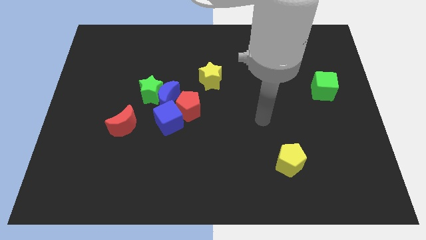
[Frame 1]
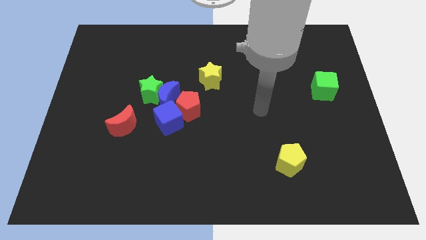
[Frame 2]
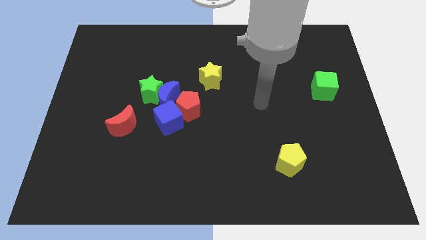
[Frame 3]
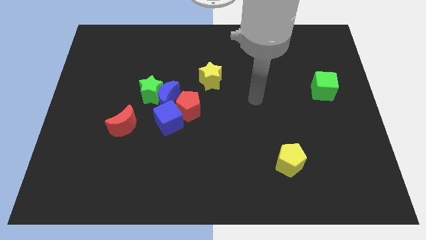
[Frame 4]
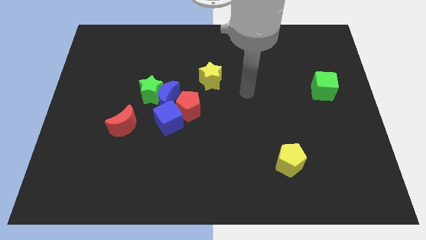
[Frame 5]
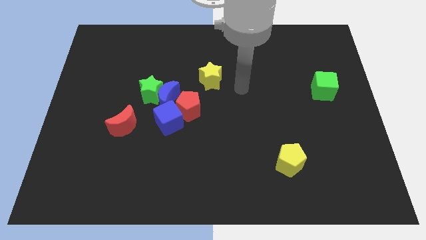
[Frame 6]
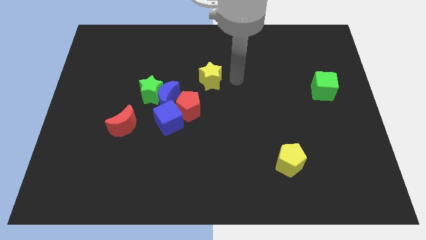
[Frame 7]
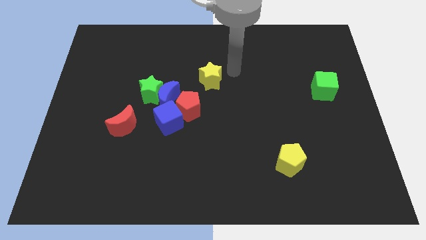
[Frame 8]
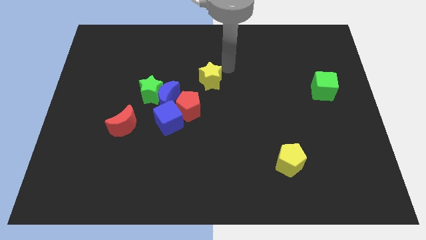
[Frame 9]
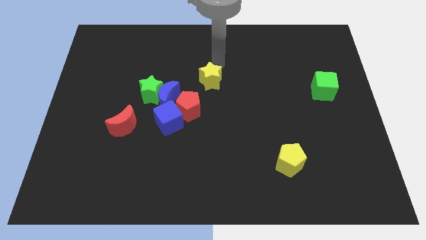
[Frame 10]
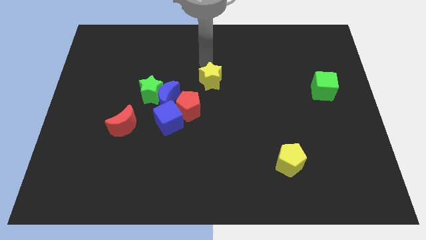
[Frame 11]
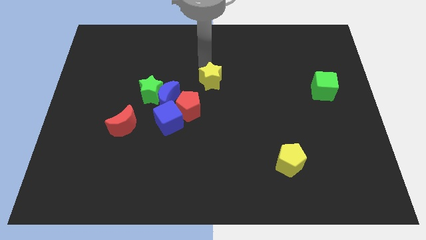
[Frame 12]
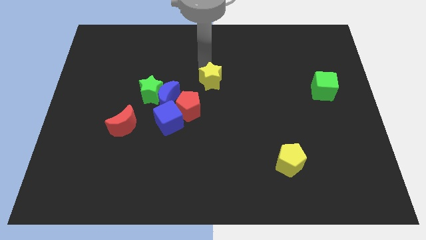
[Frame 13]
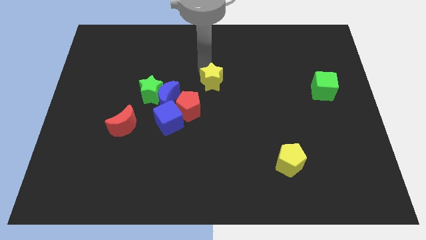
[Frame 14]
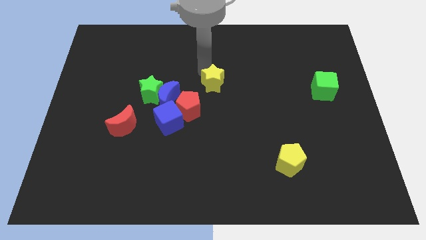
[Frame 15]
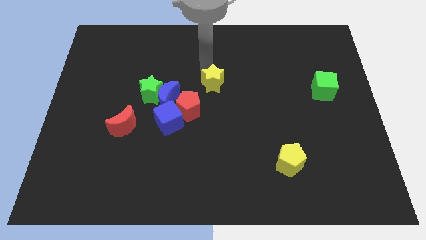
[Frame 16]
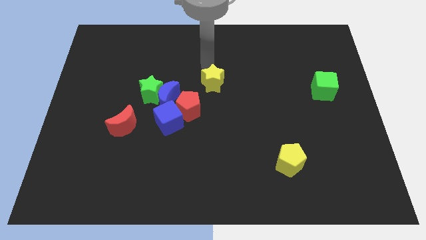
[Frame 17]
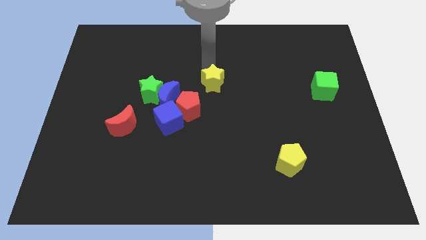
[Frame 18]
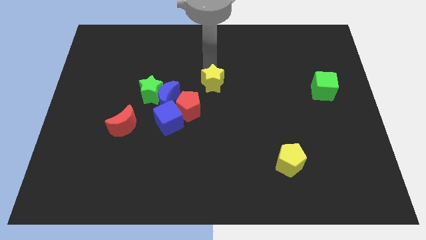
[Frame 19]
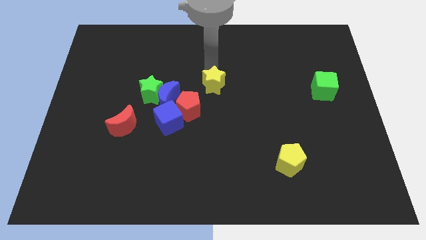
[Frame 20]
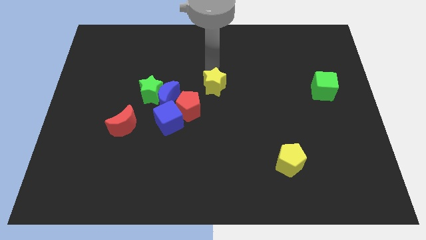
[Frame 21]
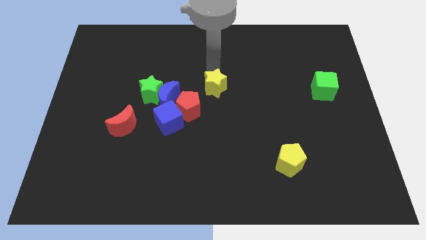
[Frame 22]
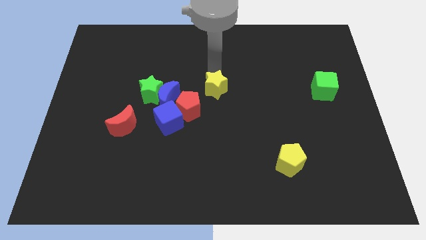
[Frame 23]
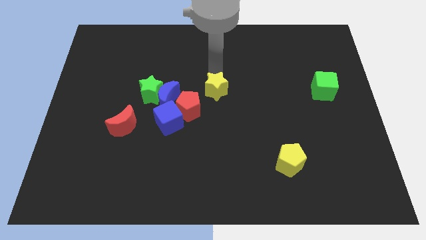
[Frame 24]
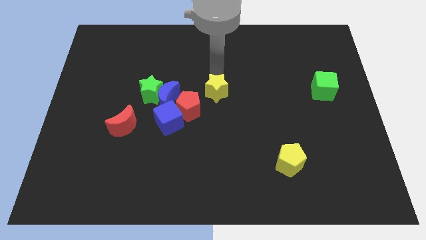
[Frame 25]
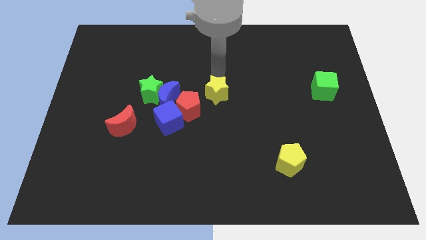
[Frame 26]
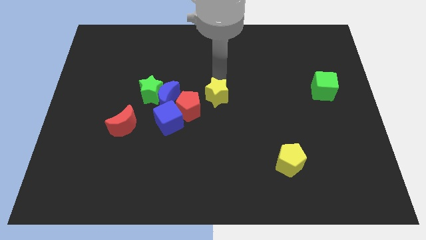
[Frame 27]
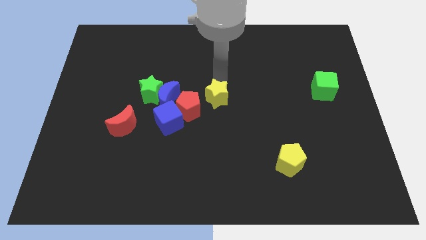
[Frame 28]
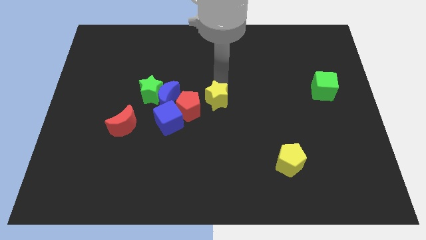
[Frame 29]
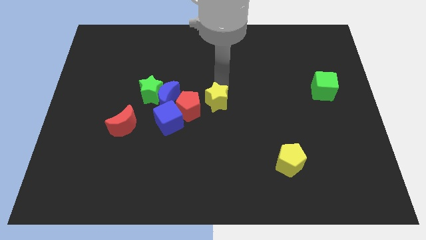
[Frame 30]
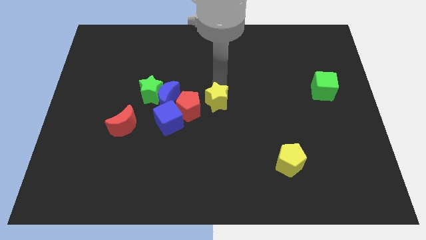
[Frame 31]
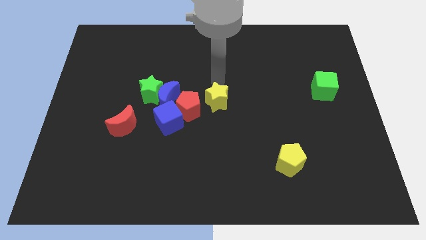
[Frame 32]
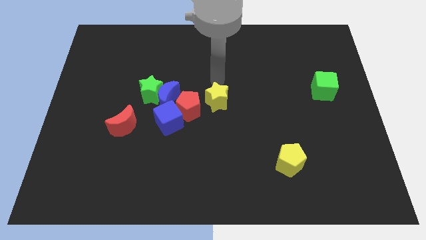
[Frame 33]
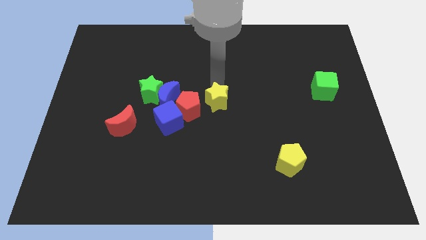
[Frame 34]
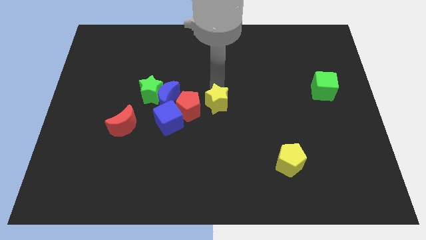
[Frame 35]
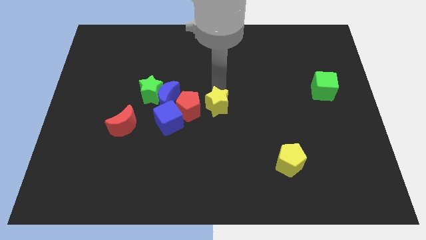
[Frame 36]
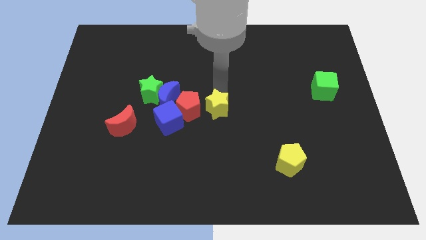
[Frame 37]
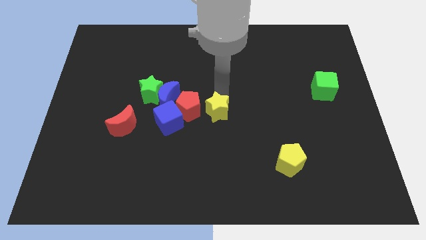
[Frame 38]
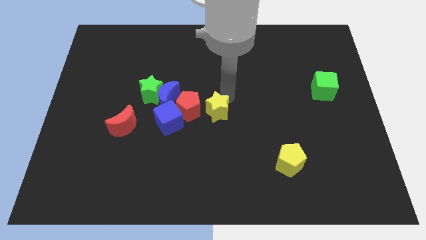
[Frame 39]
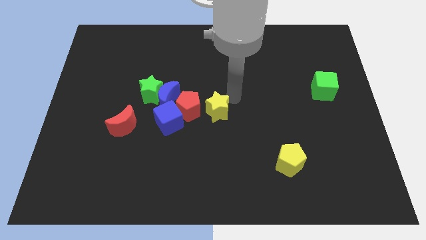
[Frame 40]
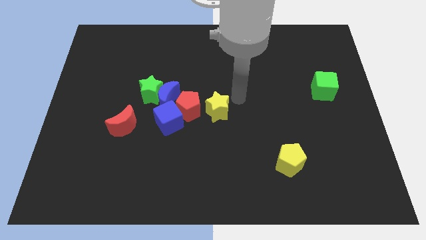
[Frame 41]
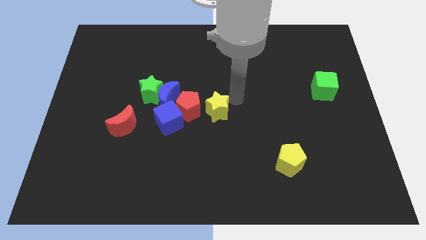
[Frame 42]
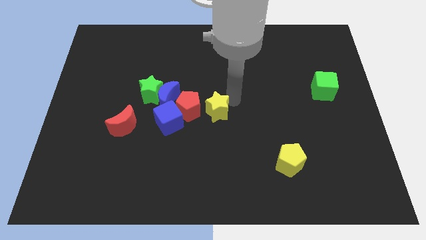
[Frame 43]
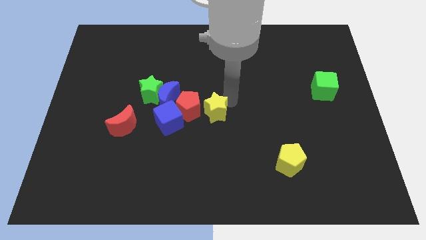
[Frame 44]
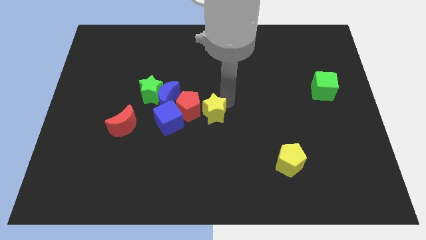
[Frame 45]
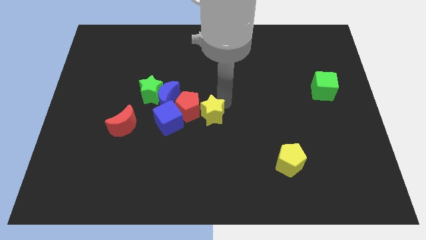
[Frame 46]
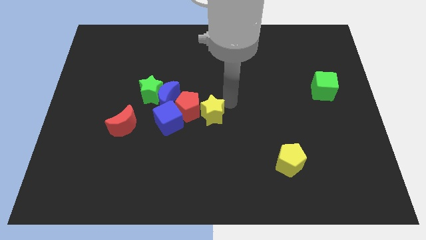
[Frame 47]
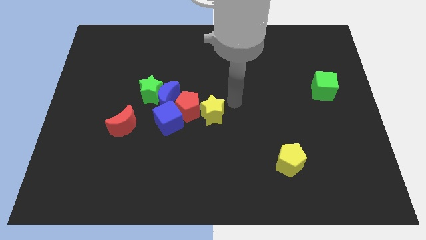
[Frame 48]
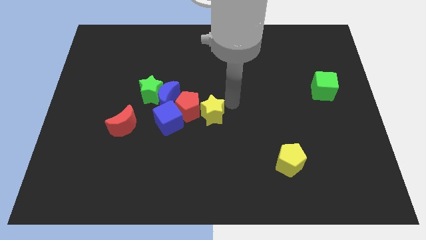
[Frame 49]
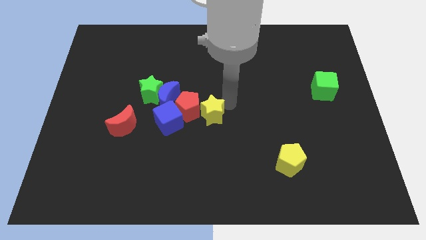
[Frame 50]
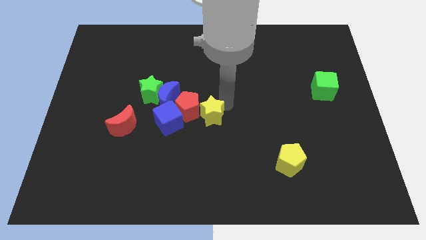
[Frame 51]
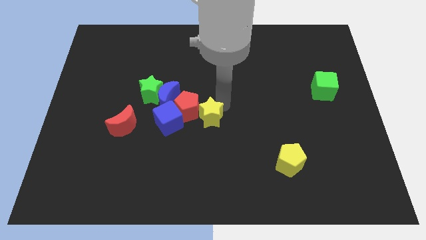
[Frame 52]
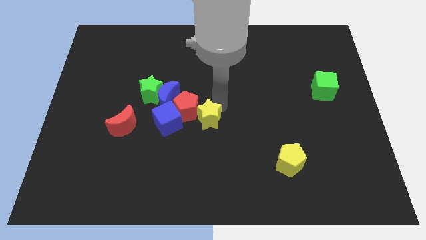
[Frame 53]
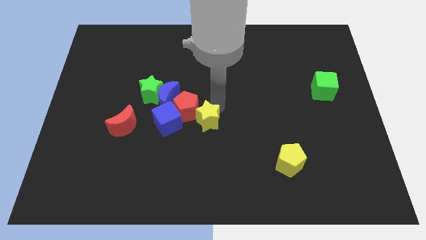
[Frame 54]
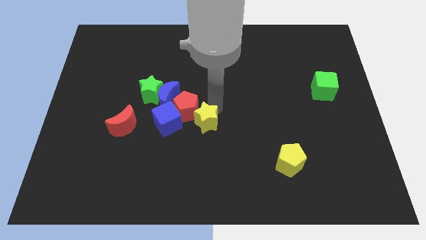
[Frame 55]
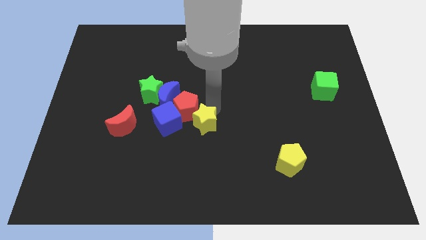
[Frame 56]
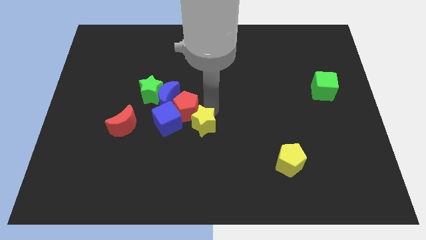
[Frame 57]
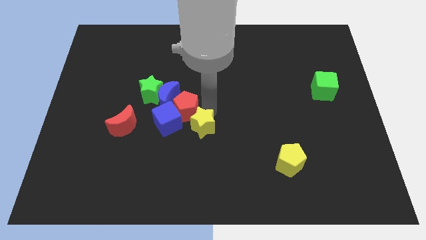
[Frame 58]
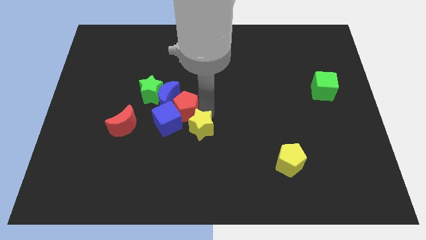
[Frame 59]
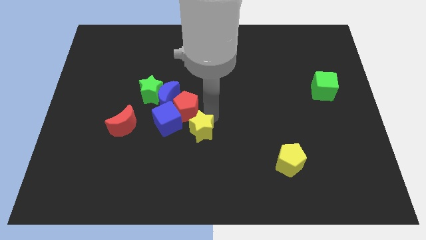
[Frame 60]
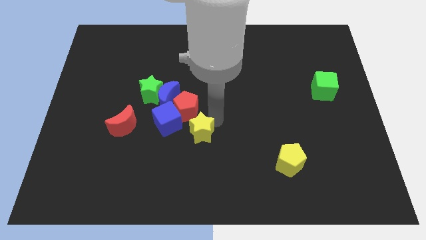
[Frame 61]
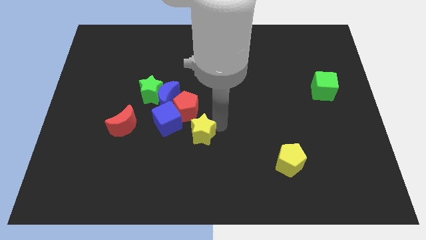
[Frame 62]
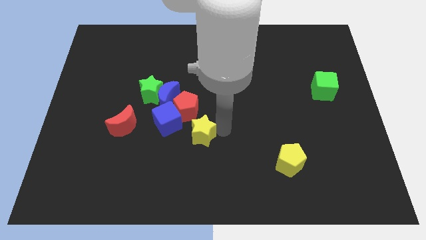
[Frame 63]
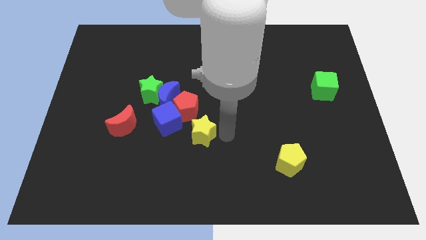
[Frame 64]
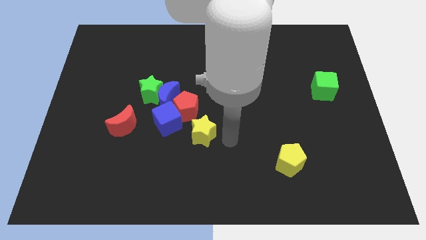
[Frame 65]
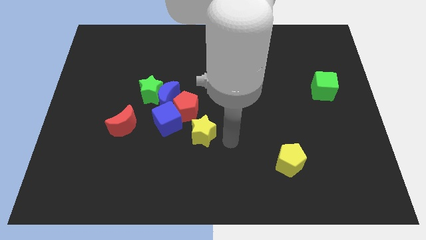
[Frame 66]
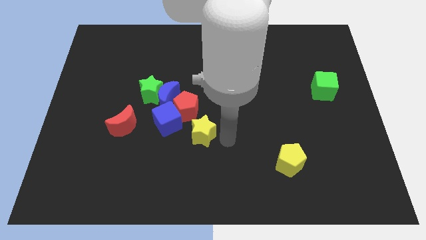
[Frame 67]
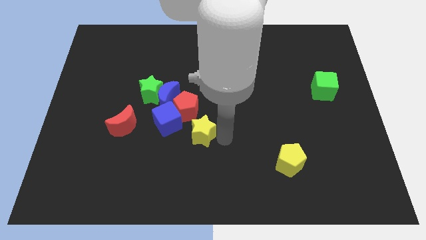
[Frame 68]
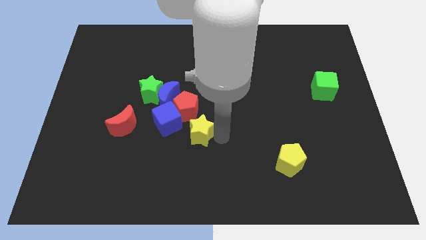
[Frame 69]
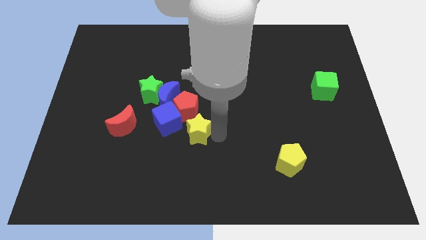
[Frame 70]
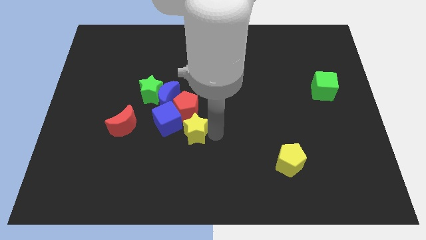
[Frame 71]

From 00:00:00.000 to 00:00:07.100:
push the yellow star to the right of the red moon

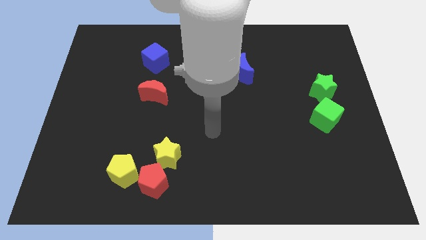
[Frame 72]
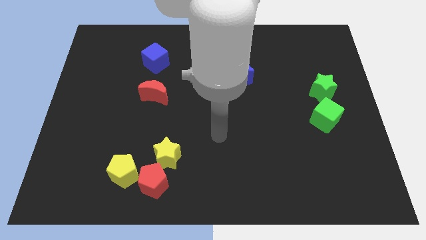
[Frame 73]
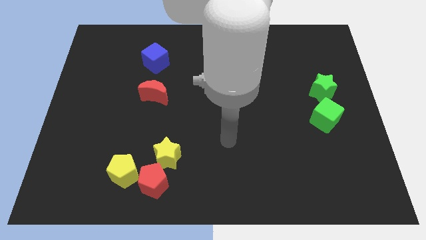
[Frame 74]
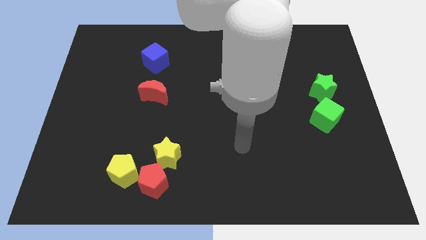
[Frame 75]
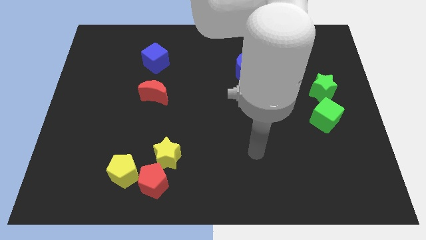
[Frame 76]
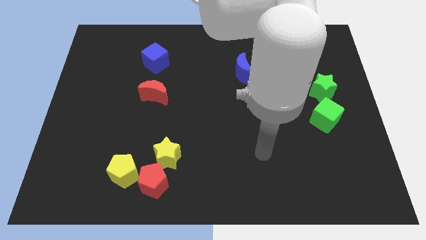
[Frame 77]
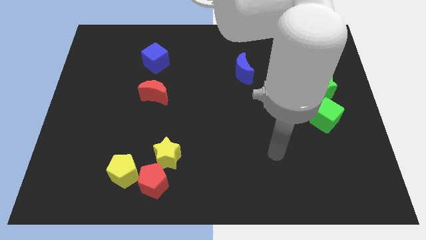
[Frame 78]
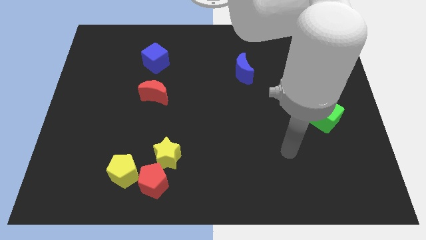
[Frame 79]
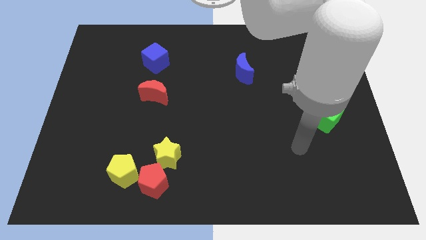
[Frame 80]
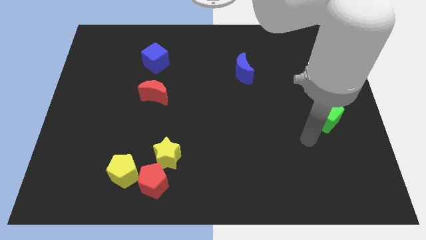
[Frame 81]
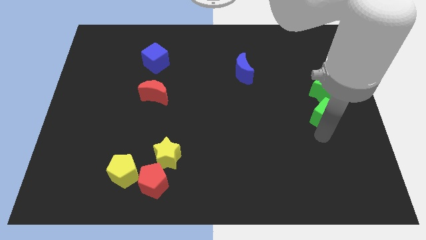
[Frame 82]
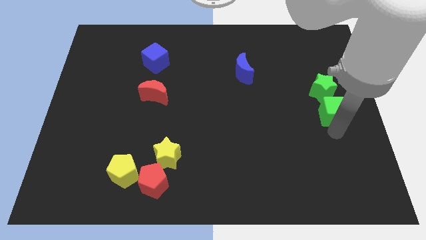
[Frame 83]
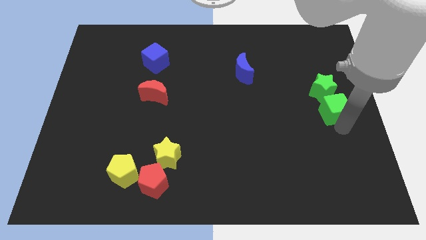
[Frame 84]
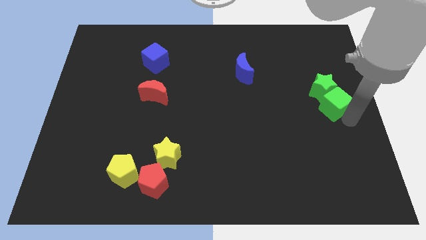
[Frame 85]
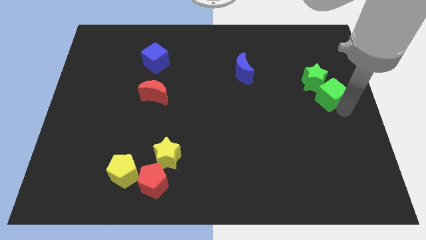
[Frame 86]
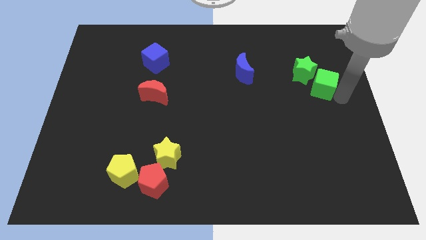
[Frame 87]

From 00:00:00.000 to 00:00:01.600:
slide the green star to the right of the blue moon
